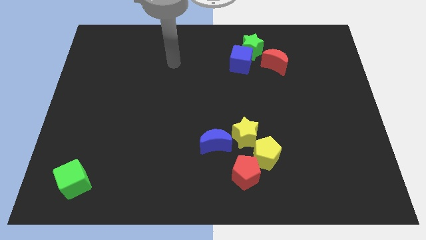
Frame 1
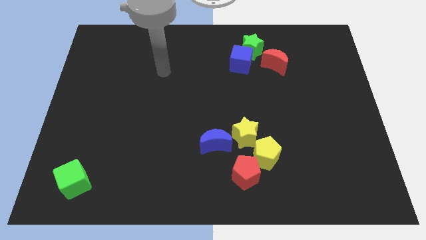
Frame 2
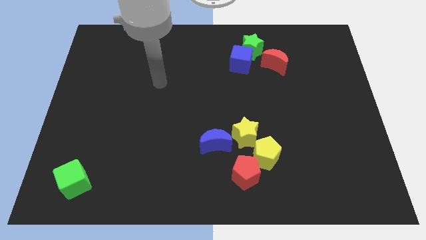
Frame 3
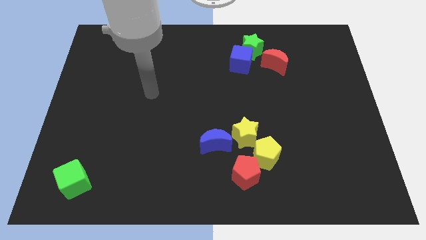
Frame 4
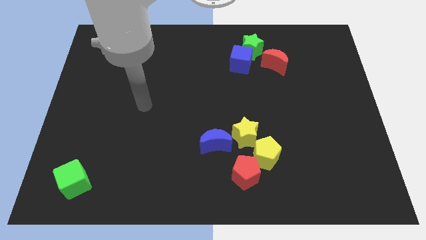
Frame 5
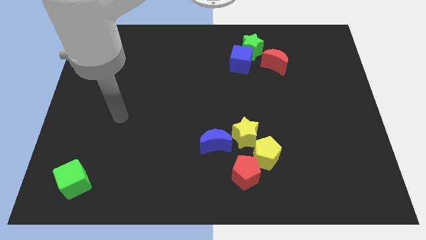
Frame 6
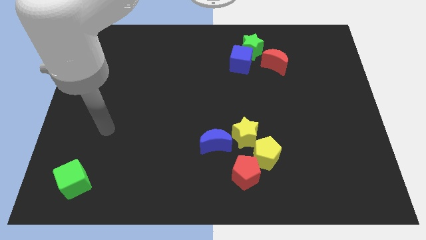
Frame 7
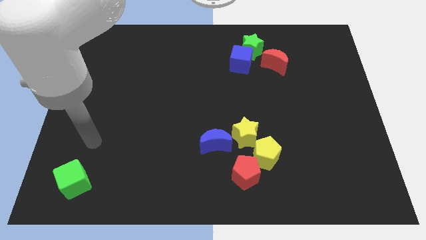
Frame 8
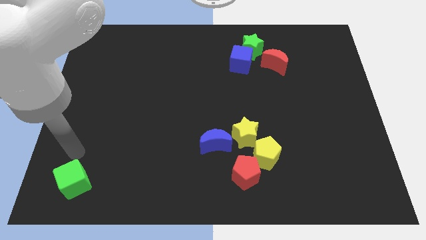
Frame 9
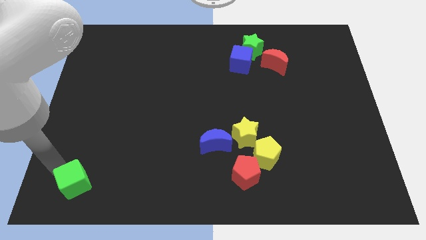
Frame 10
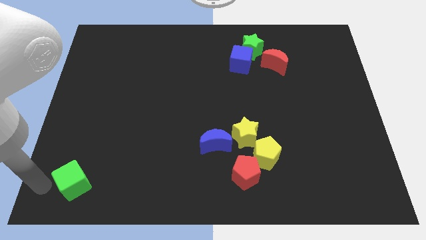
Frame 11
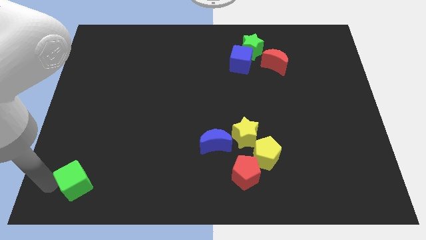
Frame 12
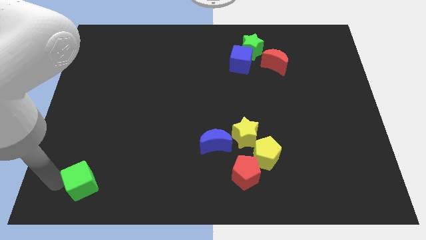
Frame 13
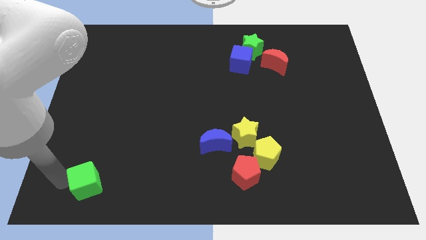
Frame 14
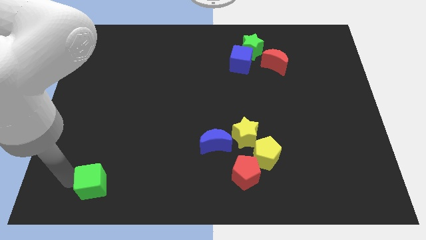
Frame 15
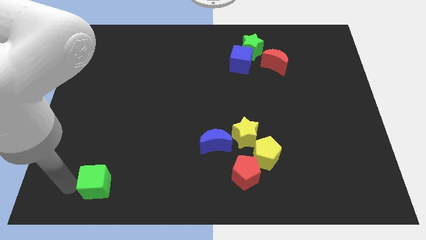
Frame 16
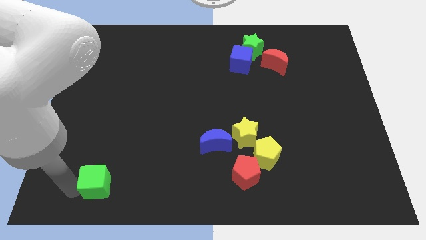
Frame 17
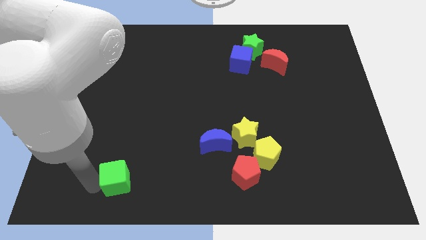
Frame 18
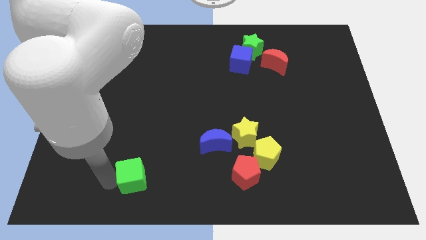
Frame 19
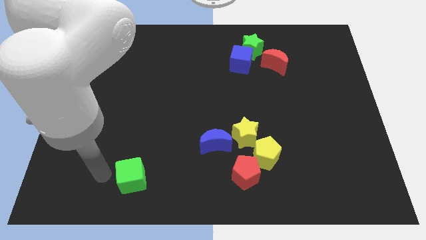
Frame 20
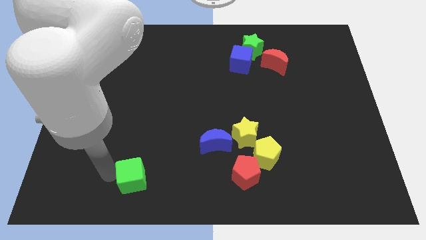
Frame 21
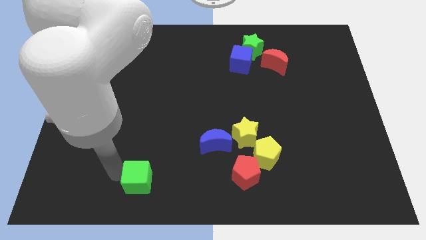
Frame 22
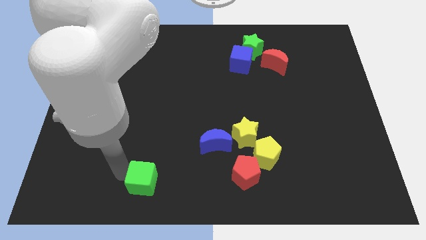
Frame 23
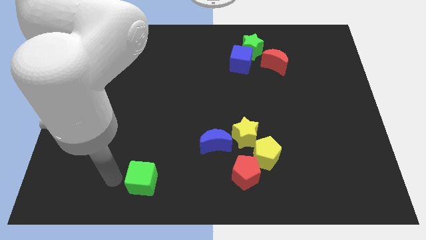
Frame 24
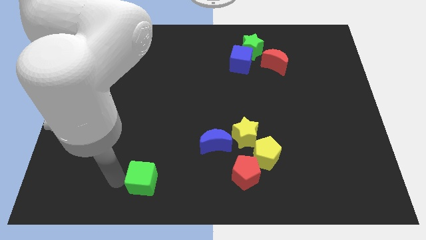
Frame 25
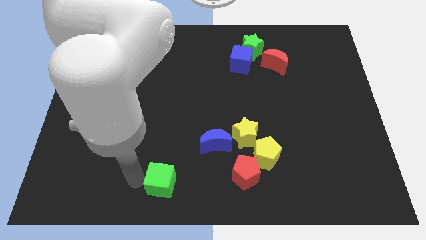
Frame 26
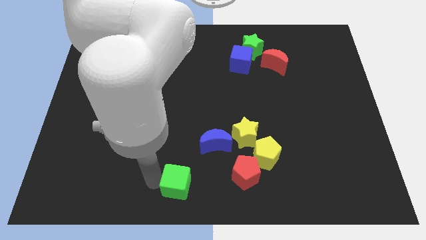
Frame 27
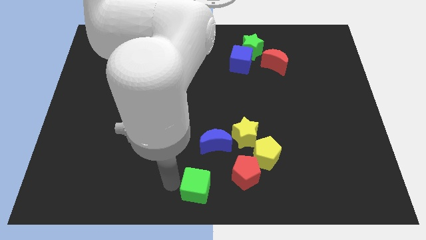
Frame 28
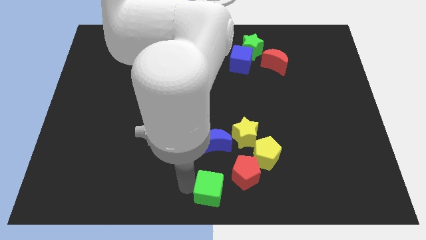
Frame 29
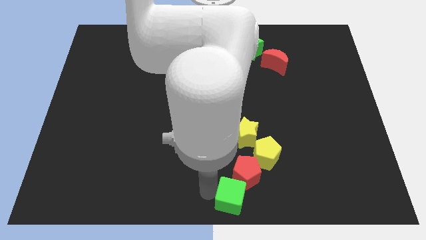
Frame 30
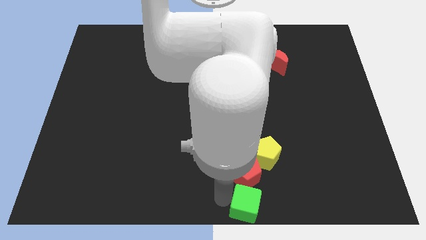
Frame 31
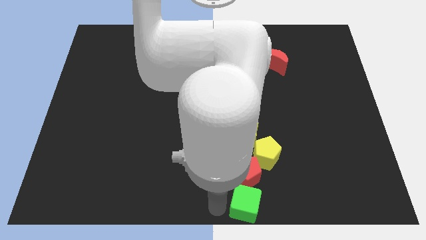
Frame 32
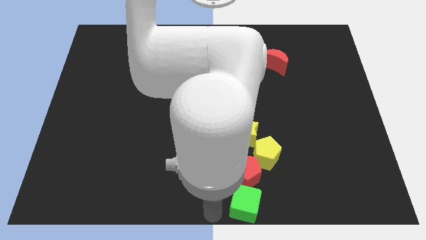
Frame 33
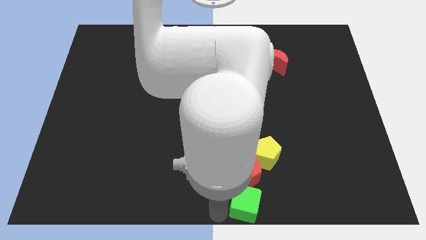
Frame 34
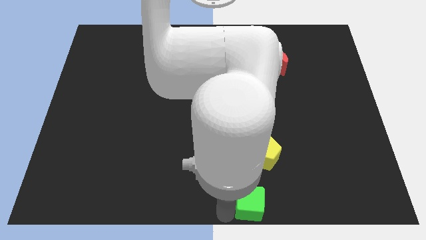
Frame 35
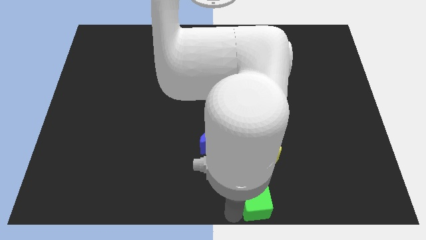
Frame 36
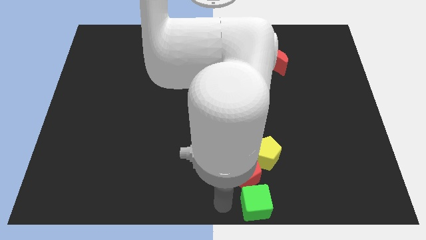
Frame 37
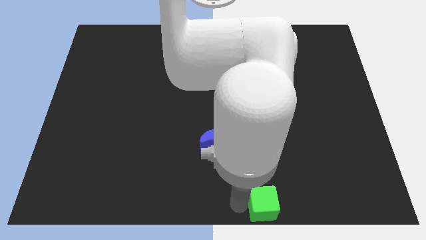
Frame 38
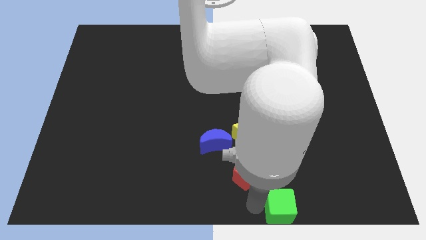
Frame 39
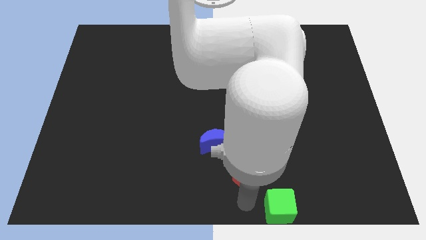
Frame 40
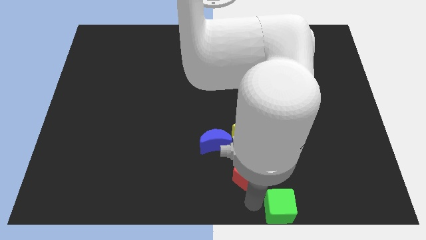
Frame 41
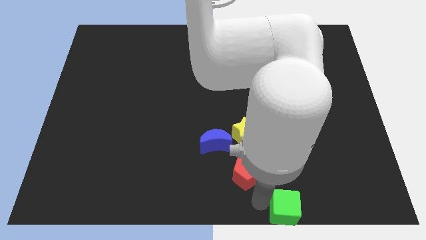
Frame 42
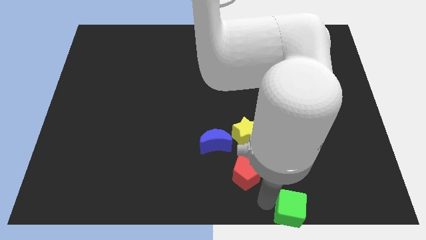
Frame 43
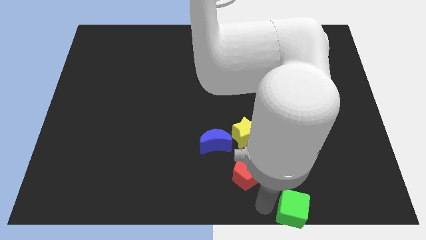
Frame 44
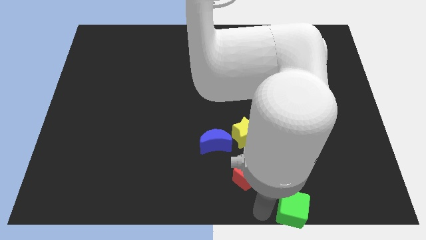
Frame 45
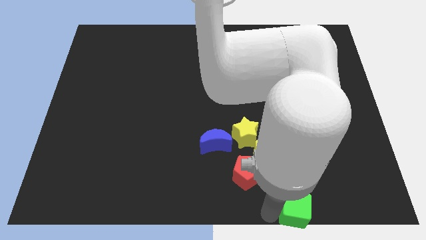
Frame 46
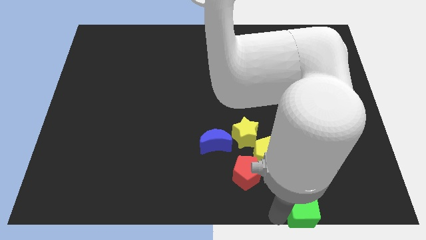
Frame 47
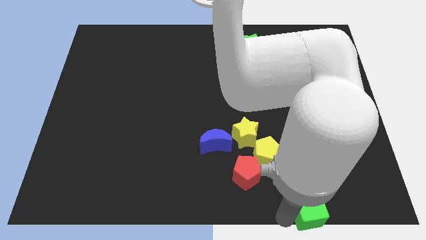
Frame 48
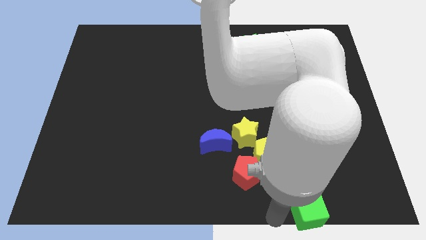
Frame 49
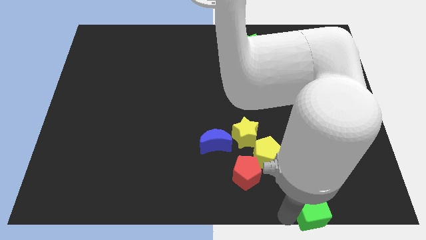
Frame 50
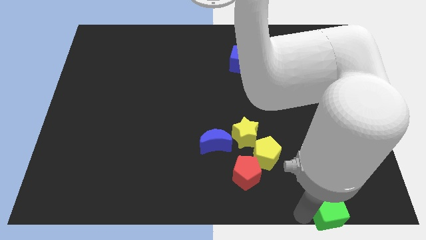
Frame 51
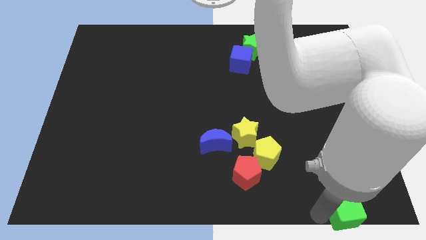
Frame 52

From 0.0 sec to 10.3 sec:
put the green cube to the lower right corner

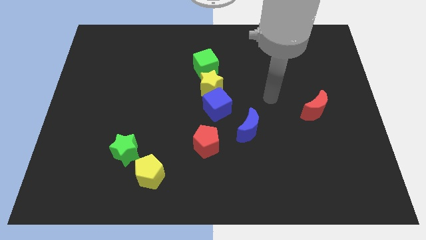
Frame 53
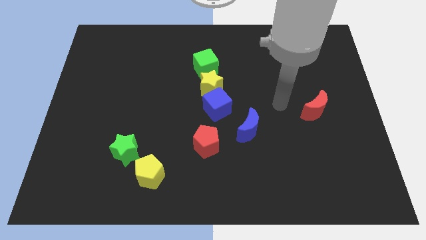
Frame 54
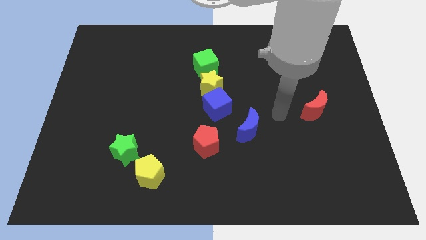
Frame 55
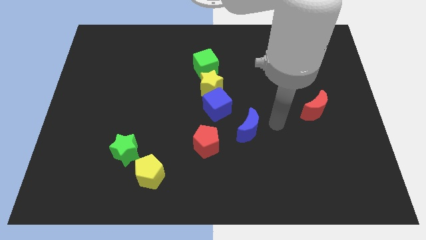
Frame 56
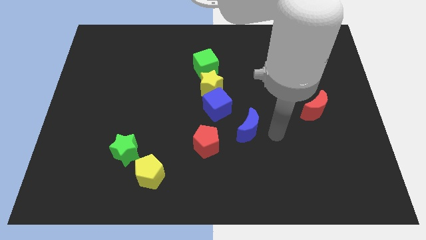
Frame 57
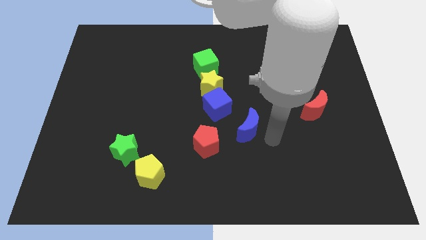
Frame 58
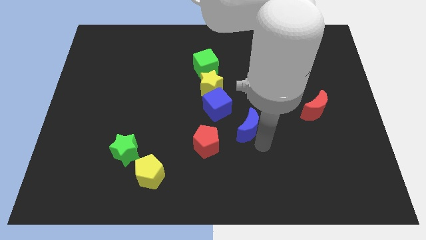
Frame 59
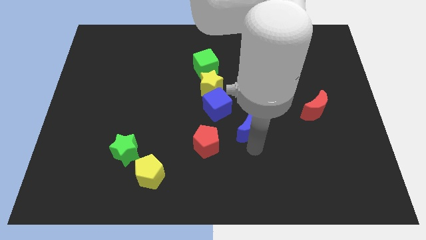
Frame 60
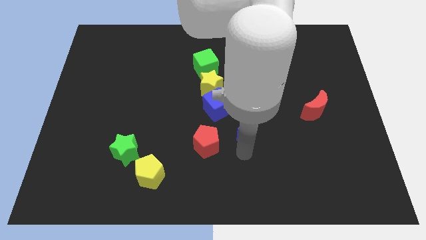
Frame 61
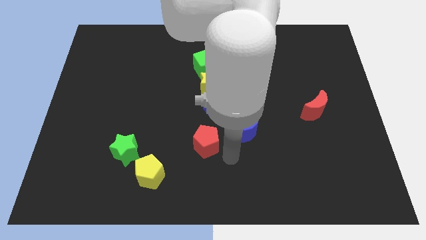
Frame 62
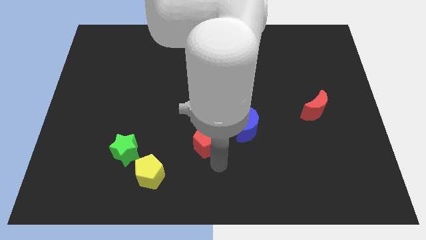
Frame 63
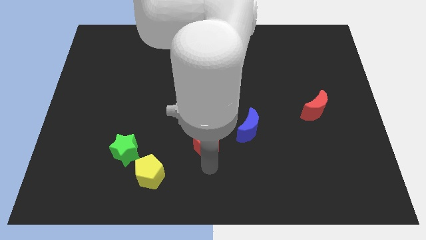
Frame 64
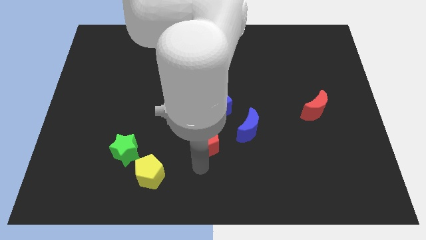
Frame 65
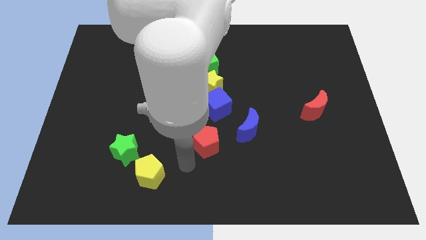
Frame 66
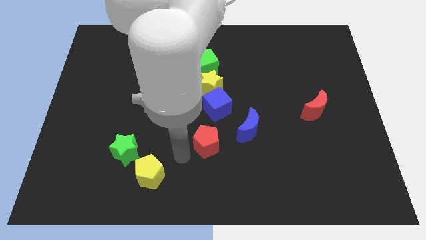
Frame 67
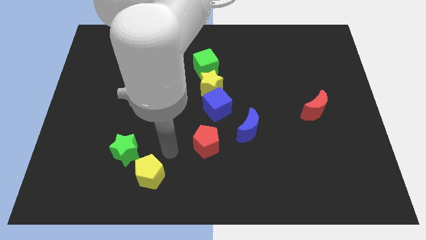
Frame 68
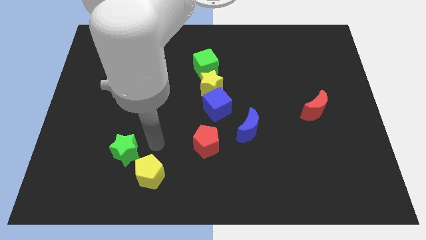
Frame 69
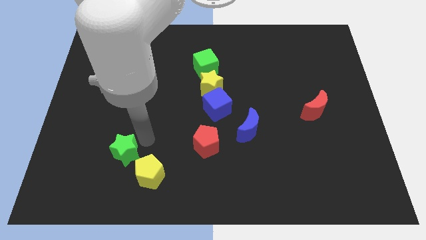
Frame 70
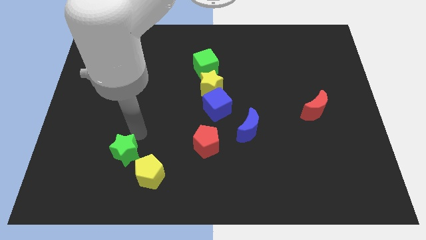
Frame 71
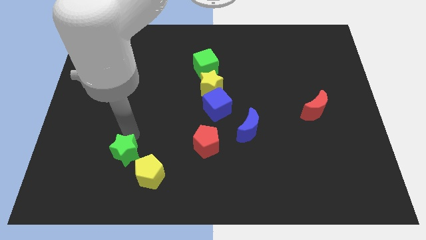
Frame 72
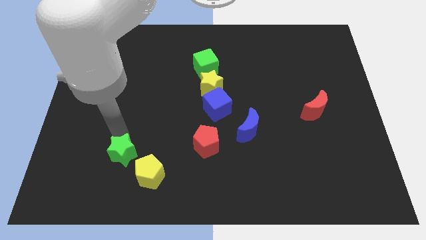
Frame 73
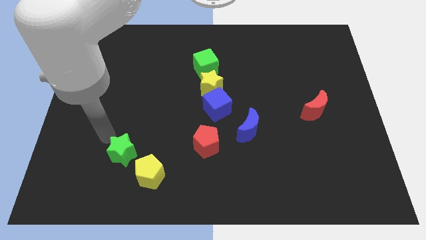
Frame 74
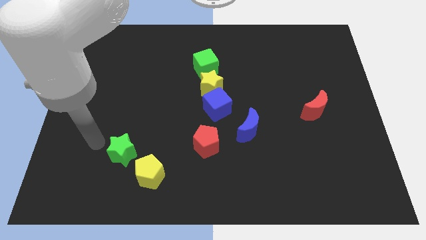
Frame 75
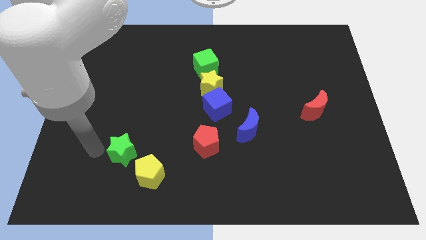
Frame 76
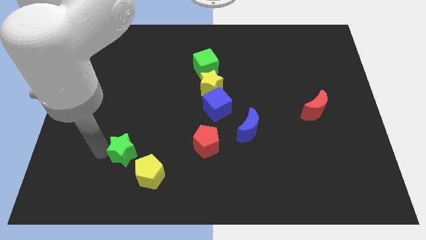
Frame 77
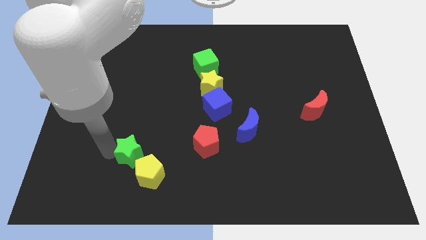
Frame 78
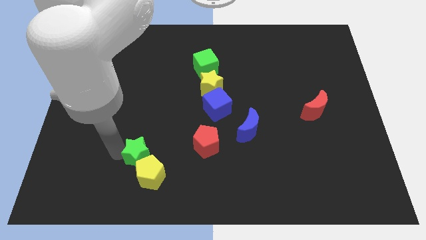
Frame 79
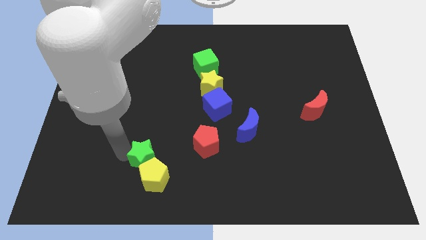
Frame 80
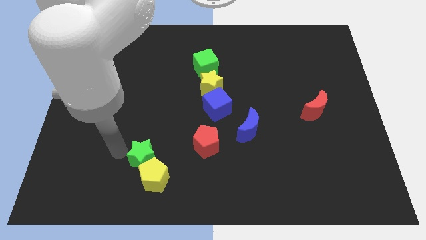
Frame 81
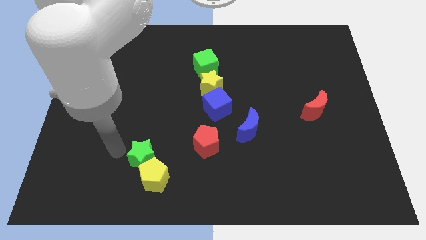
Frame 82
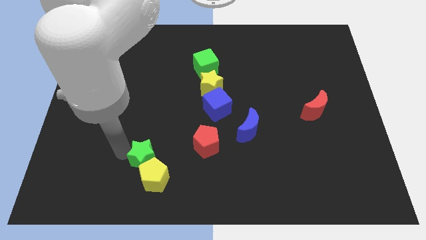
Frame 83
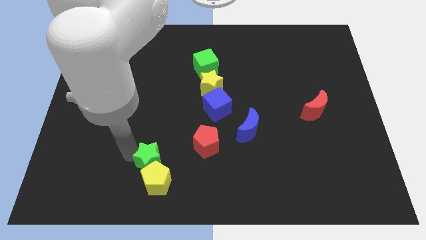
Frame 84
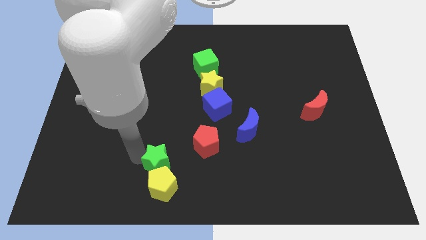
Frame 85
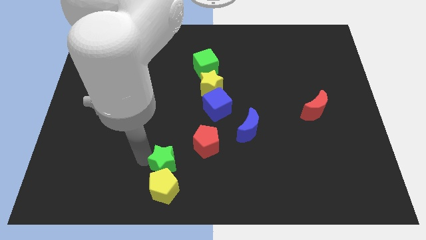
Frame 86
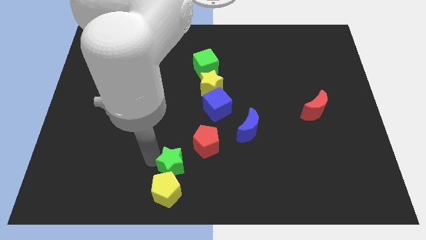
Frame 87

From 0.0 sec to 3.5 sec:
slide the green star to the bottom side
